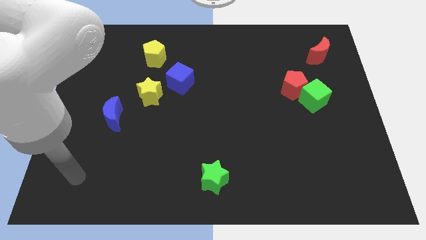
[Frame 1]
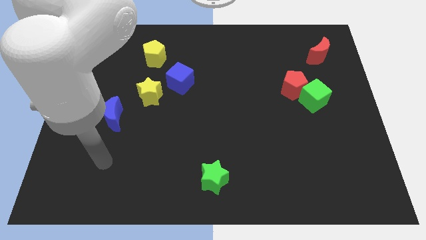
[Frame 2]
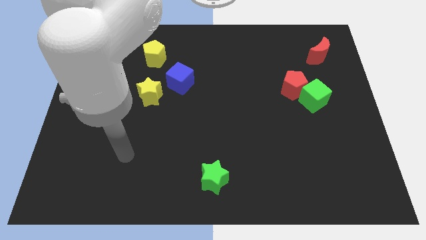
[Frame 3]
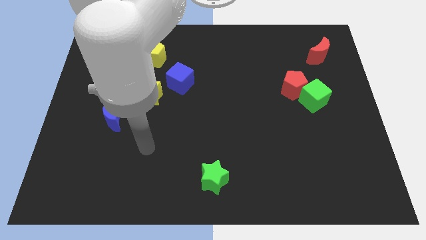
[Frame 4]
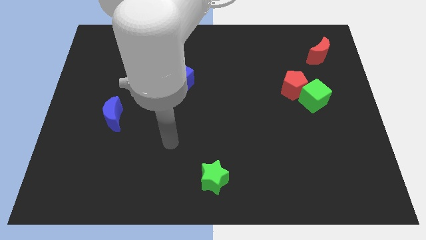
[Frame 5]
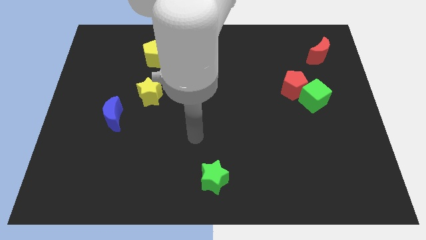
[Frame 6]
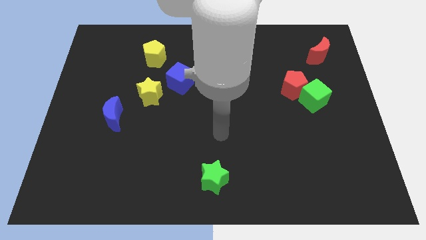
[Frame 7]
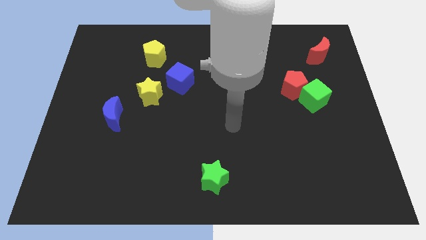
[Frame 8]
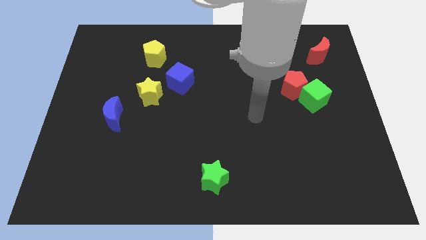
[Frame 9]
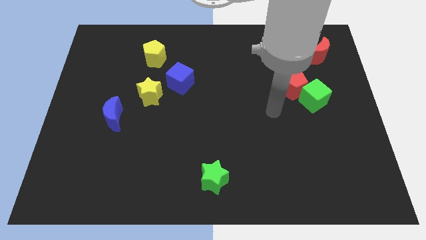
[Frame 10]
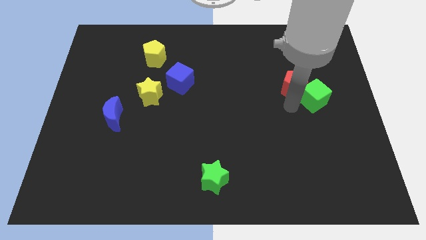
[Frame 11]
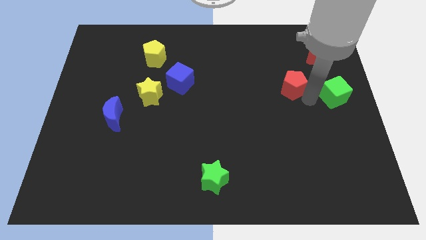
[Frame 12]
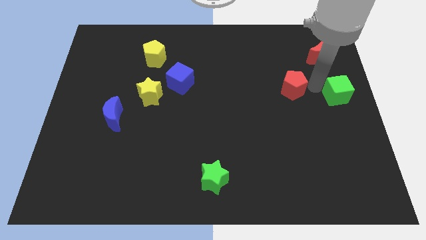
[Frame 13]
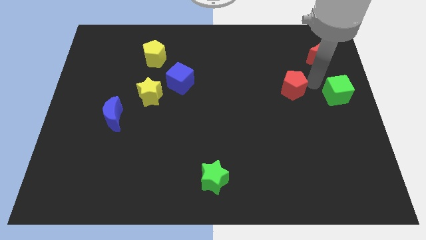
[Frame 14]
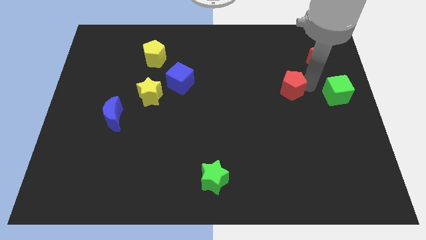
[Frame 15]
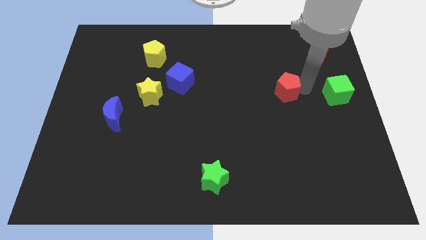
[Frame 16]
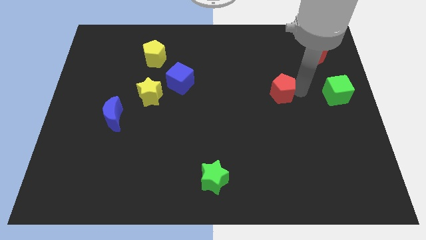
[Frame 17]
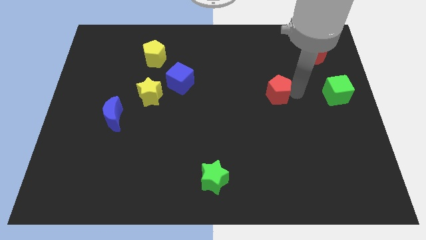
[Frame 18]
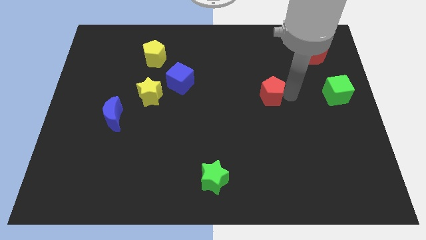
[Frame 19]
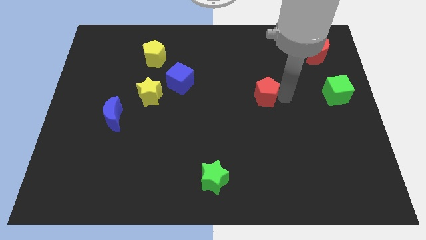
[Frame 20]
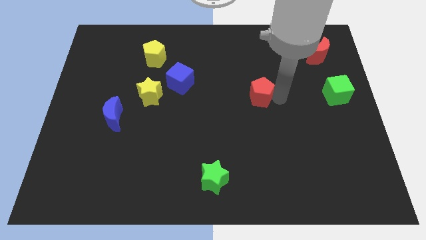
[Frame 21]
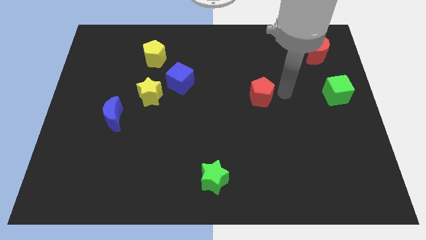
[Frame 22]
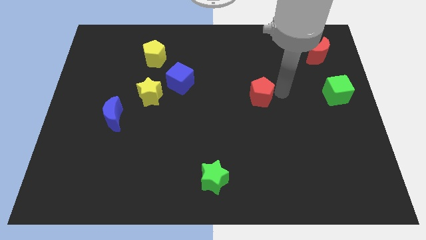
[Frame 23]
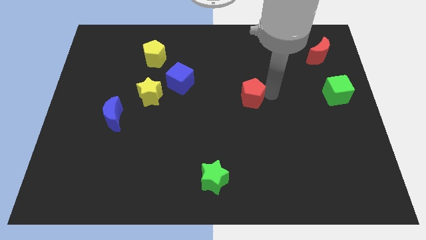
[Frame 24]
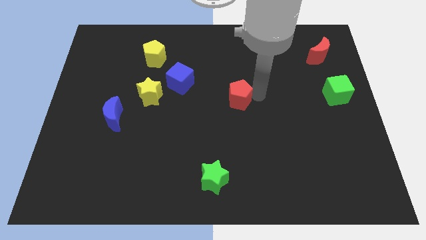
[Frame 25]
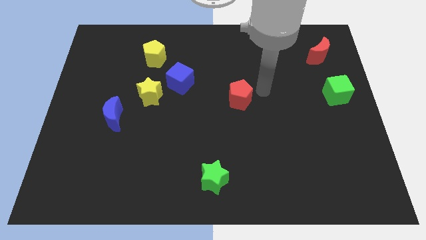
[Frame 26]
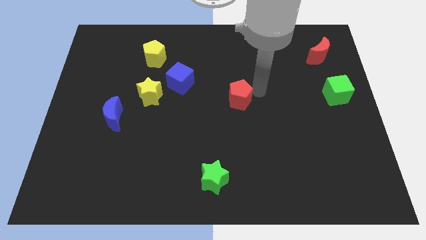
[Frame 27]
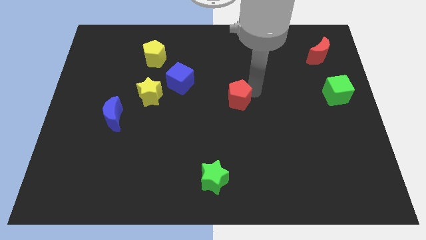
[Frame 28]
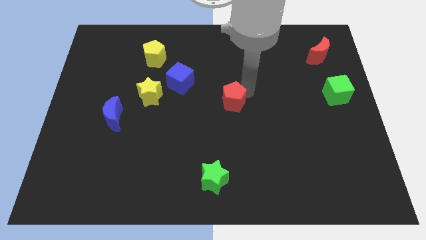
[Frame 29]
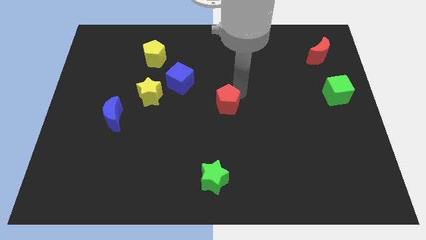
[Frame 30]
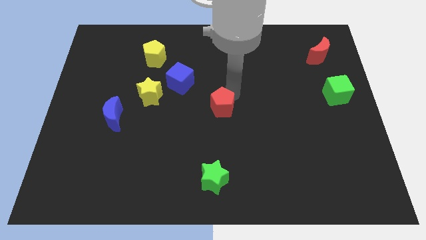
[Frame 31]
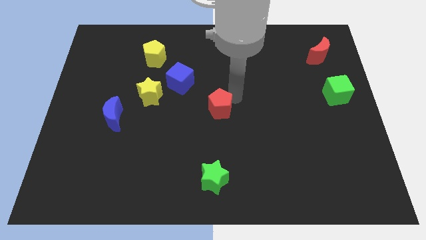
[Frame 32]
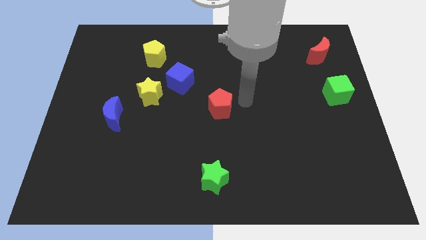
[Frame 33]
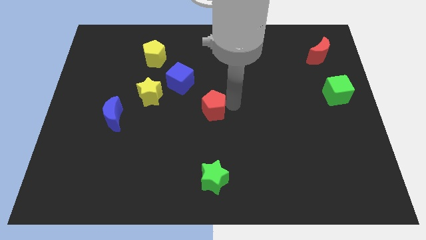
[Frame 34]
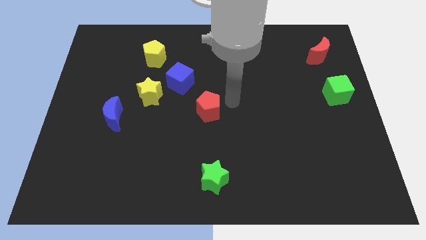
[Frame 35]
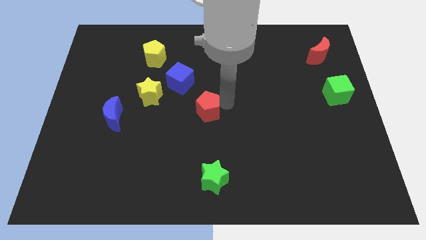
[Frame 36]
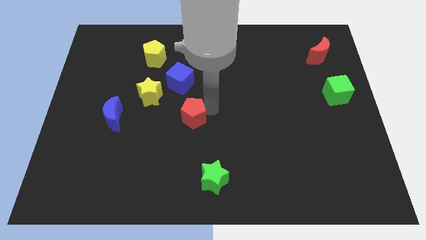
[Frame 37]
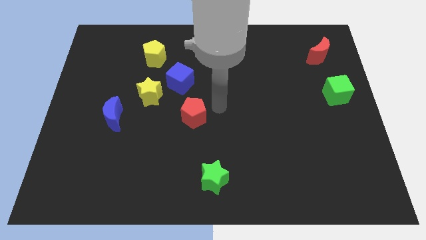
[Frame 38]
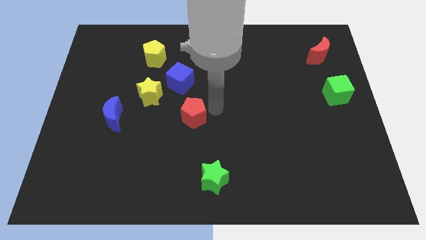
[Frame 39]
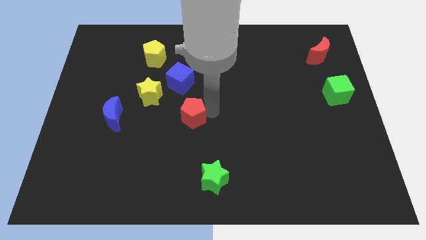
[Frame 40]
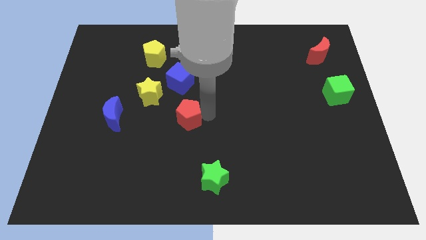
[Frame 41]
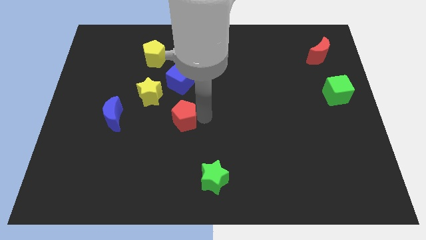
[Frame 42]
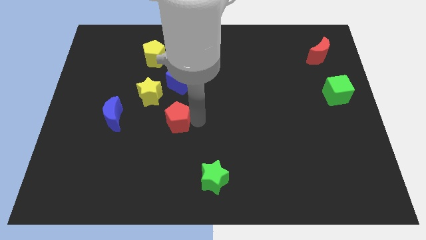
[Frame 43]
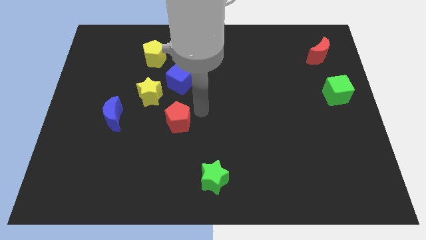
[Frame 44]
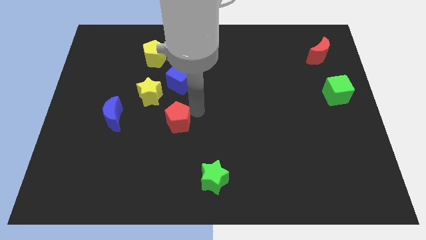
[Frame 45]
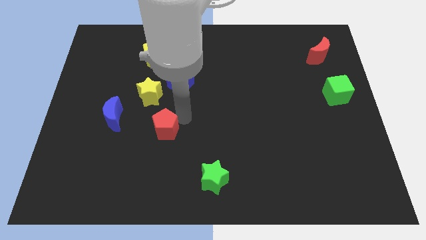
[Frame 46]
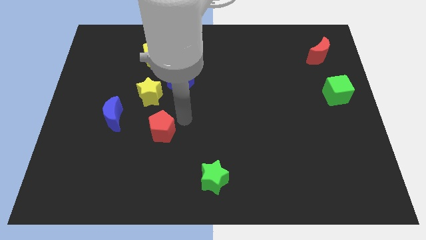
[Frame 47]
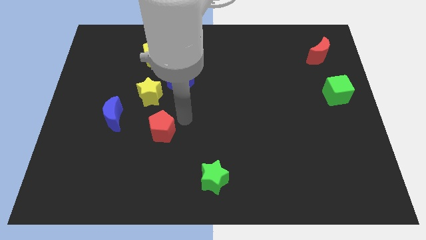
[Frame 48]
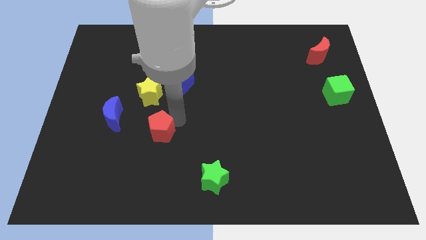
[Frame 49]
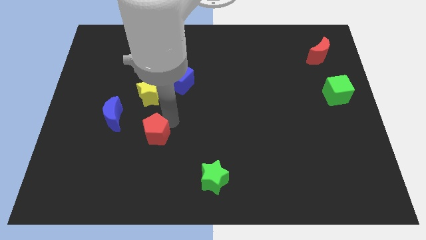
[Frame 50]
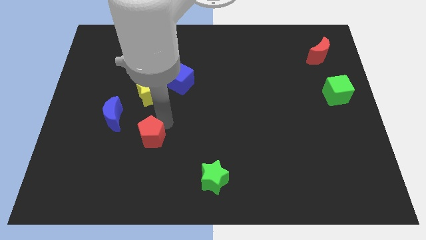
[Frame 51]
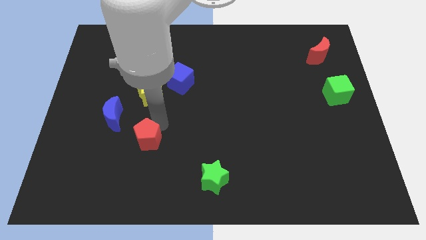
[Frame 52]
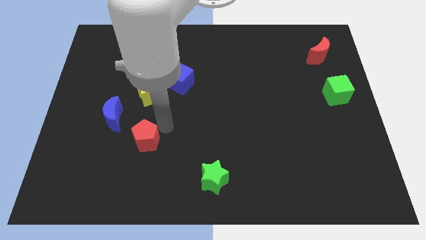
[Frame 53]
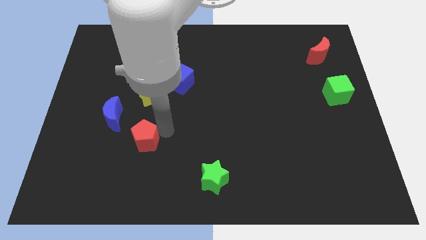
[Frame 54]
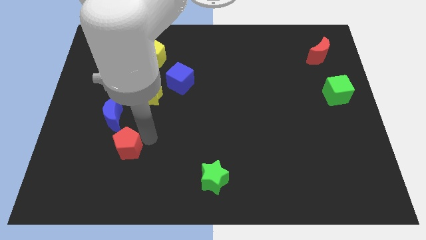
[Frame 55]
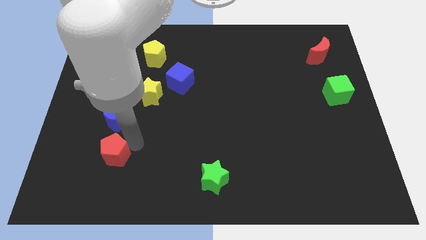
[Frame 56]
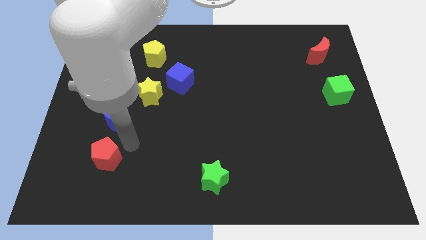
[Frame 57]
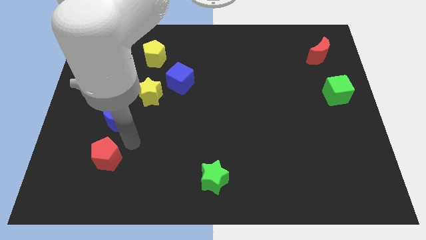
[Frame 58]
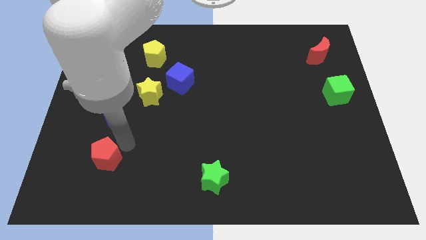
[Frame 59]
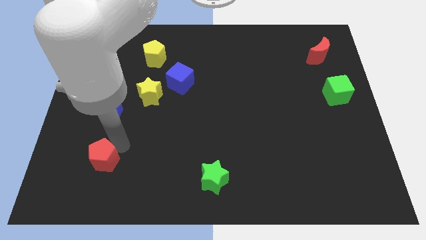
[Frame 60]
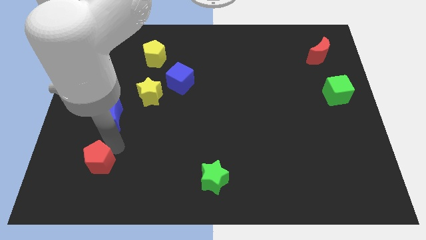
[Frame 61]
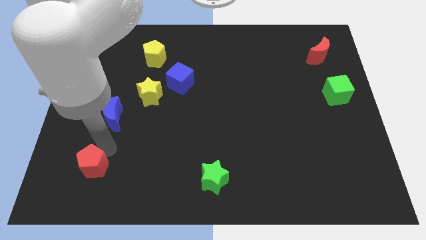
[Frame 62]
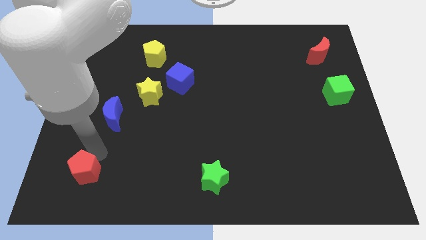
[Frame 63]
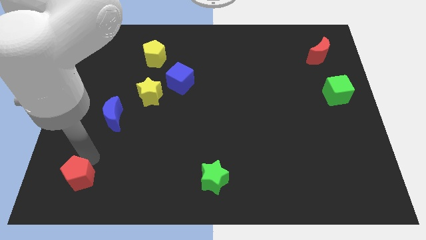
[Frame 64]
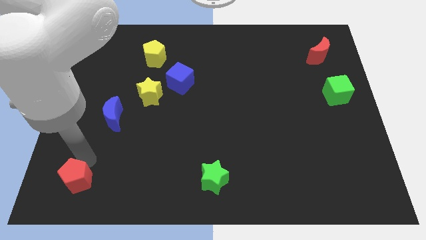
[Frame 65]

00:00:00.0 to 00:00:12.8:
slide the red pentagon to the bottom left of the board

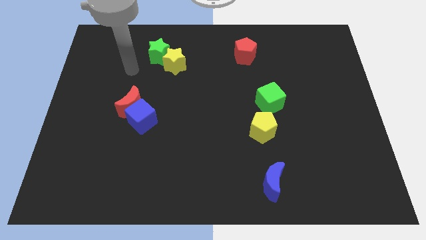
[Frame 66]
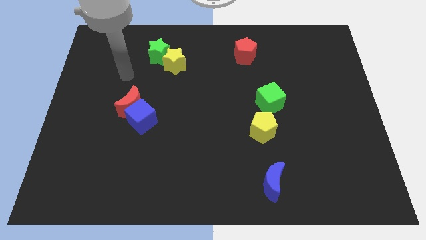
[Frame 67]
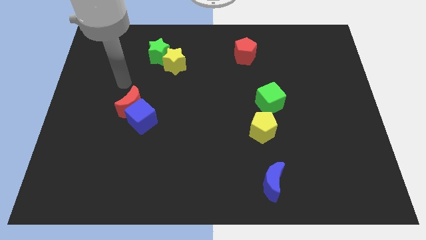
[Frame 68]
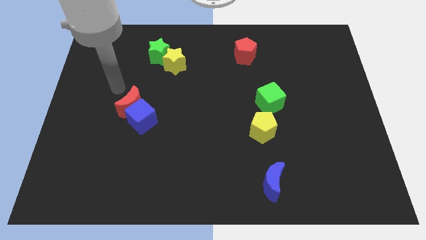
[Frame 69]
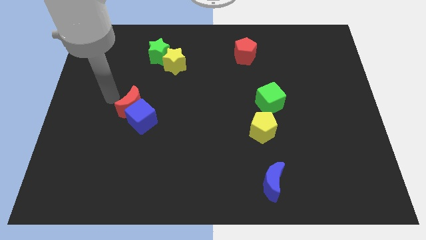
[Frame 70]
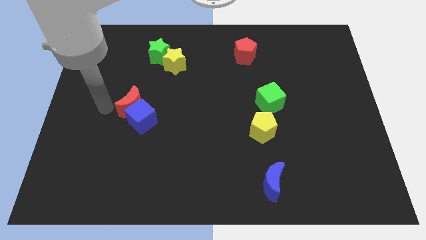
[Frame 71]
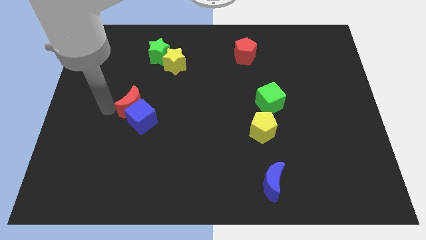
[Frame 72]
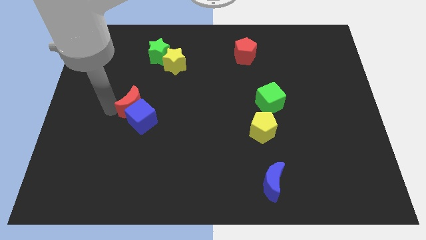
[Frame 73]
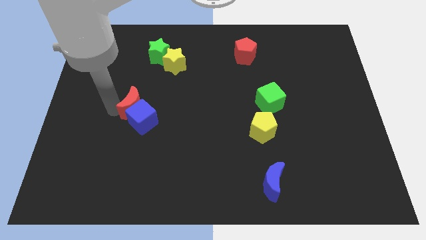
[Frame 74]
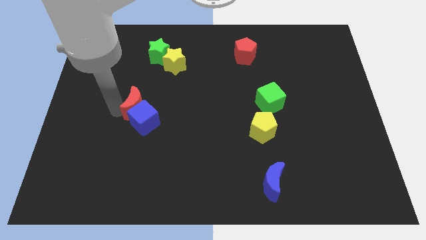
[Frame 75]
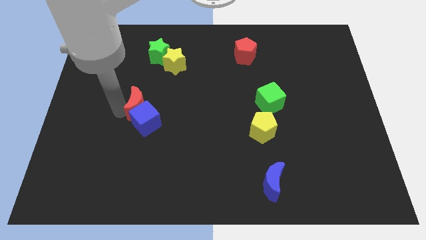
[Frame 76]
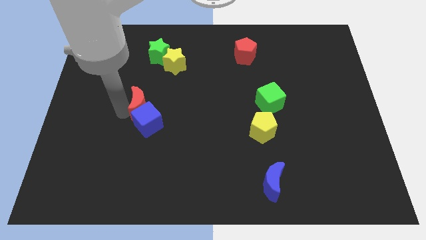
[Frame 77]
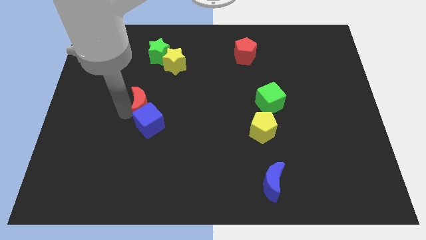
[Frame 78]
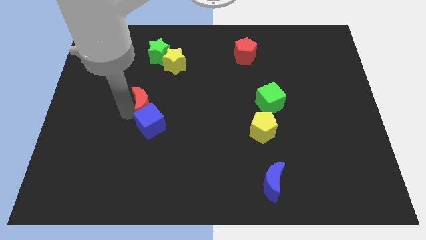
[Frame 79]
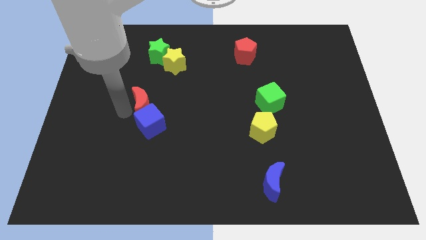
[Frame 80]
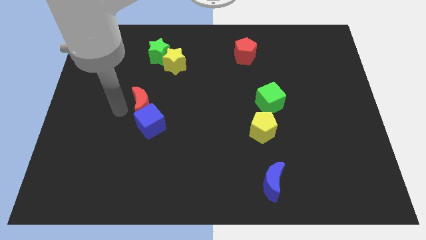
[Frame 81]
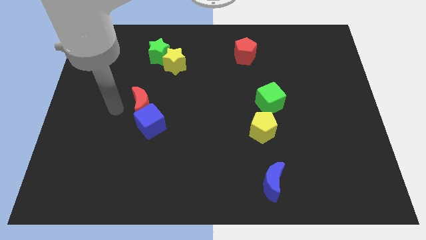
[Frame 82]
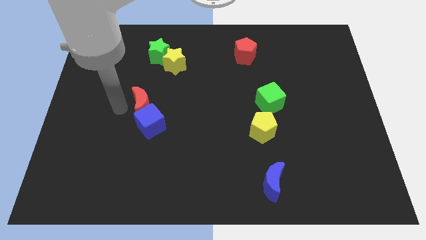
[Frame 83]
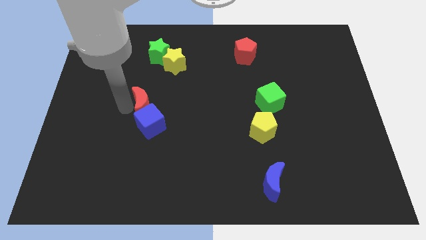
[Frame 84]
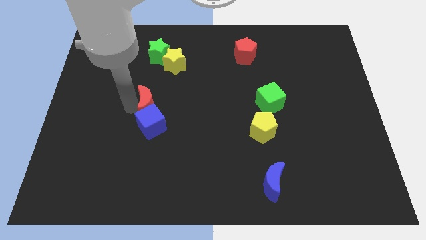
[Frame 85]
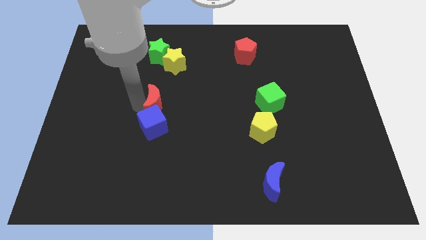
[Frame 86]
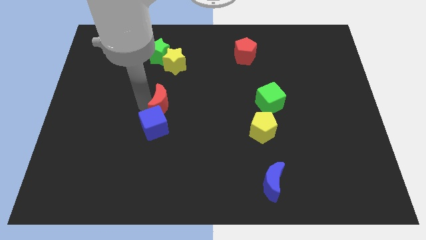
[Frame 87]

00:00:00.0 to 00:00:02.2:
slide the red moon to the center
